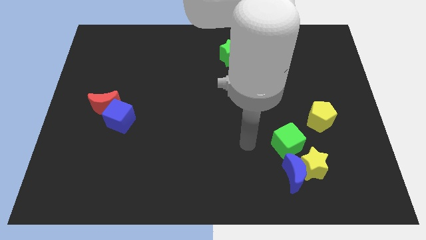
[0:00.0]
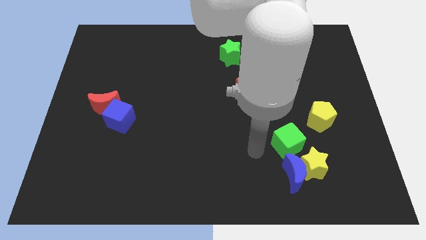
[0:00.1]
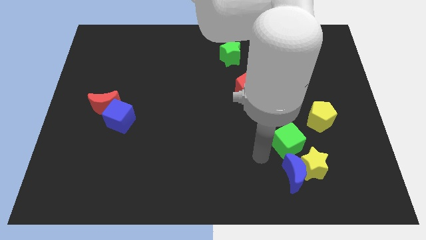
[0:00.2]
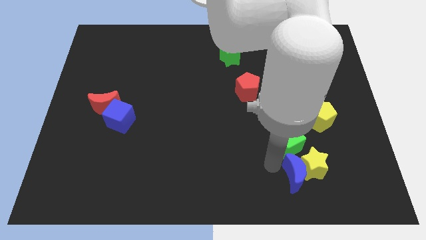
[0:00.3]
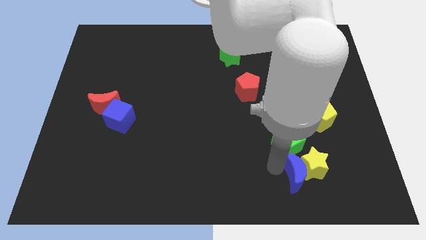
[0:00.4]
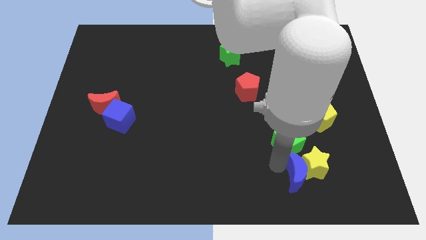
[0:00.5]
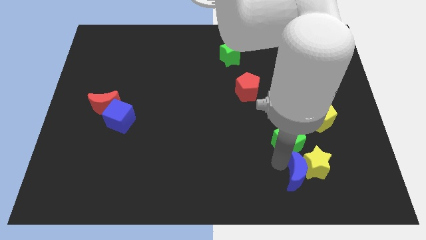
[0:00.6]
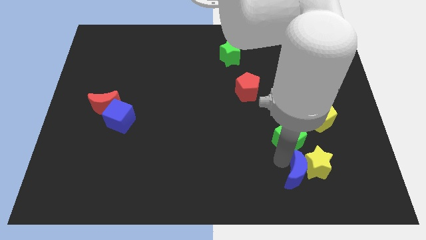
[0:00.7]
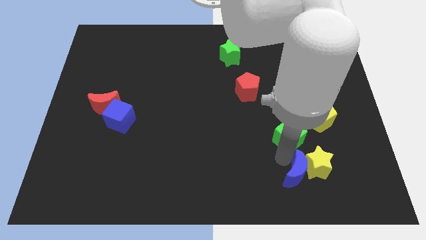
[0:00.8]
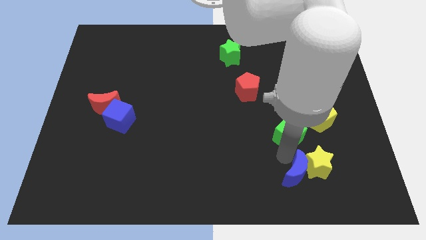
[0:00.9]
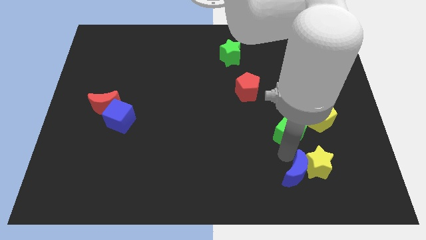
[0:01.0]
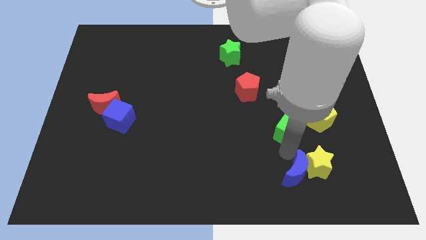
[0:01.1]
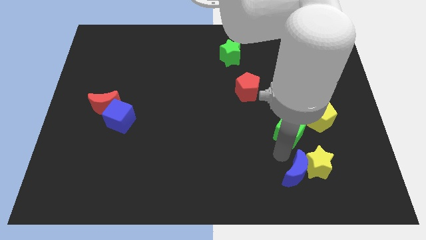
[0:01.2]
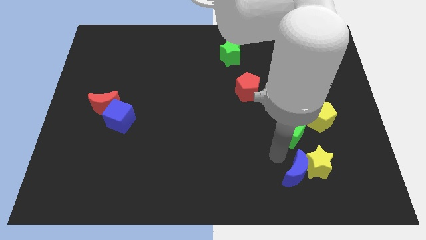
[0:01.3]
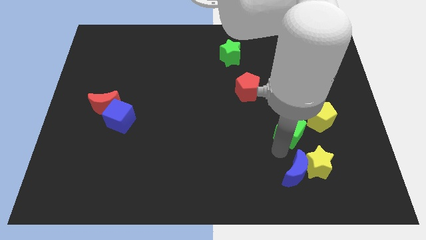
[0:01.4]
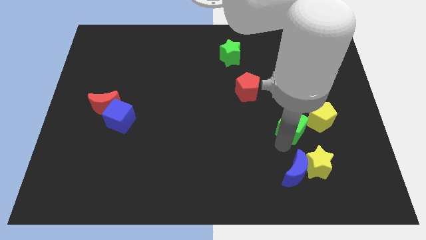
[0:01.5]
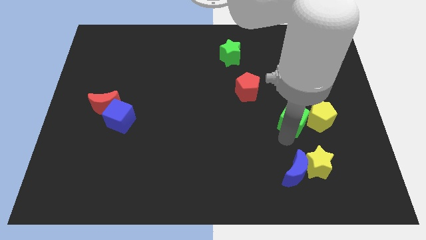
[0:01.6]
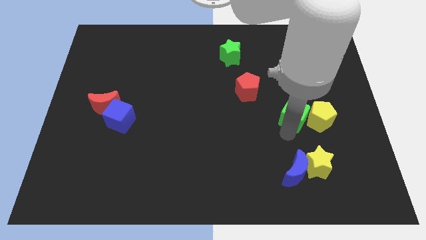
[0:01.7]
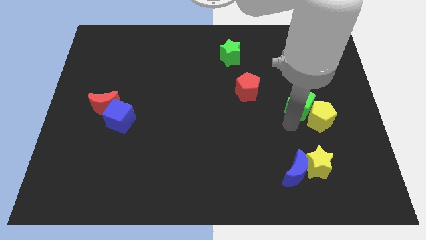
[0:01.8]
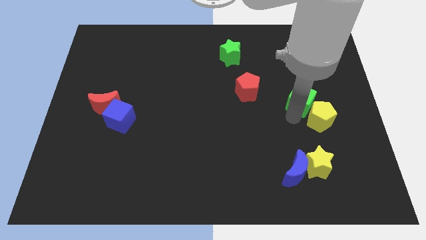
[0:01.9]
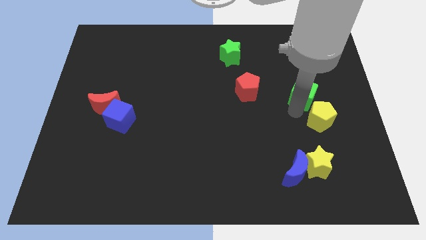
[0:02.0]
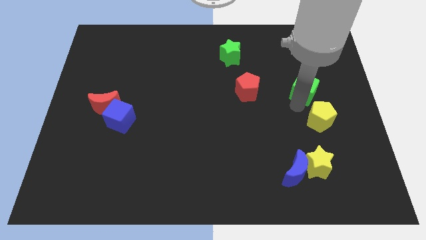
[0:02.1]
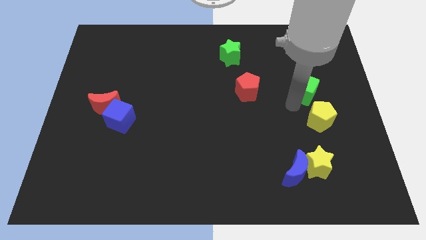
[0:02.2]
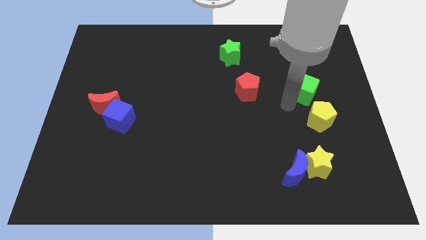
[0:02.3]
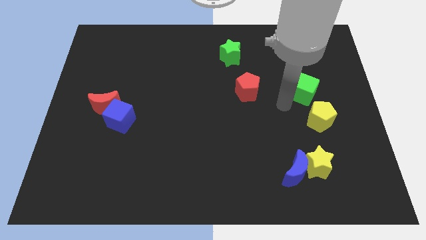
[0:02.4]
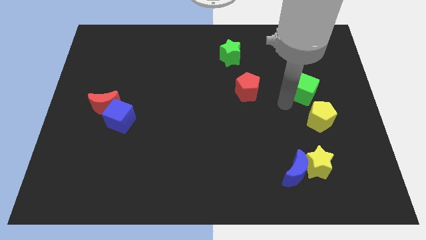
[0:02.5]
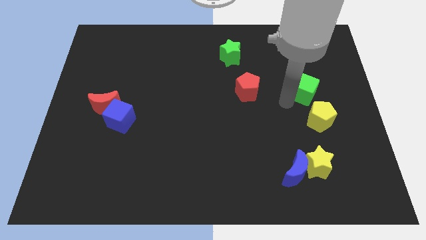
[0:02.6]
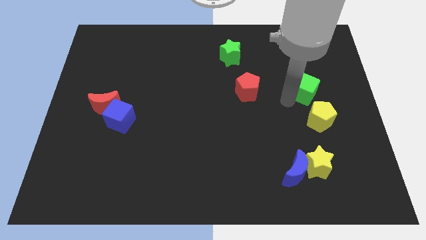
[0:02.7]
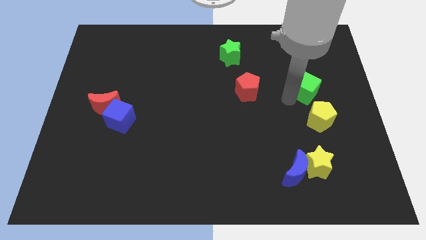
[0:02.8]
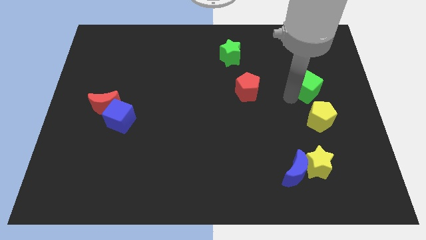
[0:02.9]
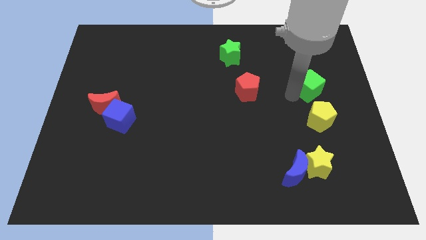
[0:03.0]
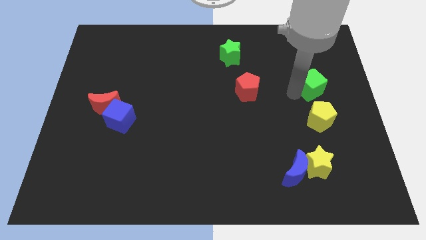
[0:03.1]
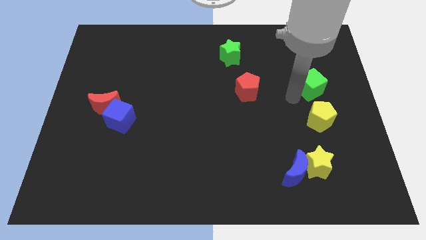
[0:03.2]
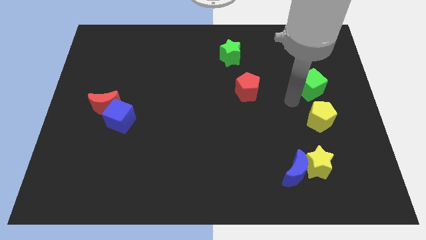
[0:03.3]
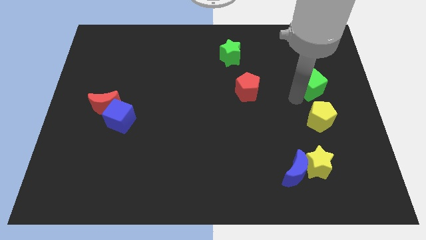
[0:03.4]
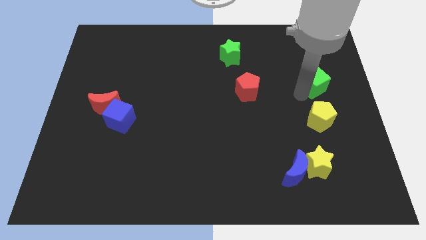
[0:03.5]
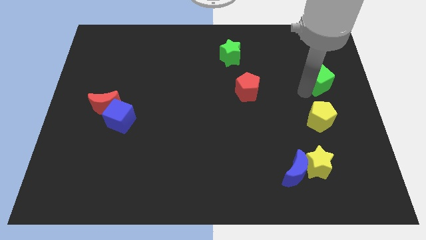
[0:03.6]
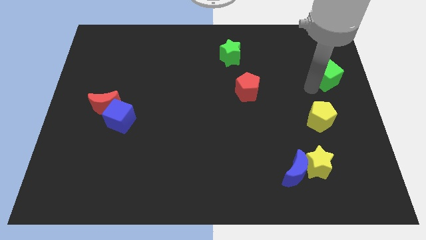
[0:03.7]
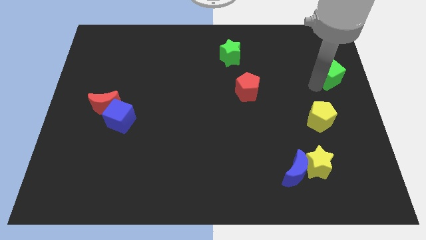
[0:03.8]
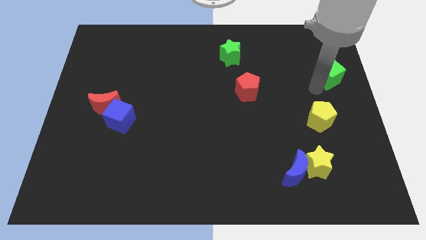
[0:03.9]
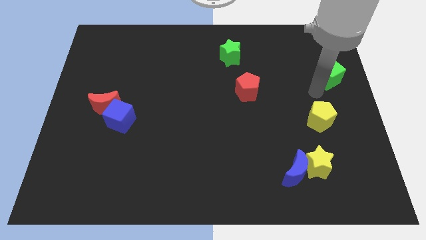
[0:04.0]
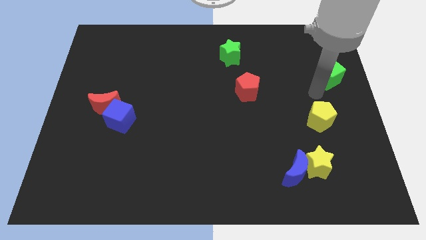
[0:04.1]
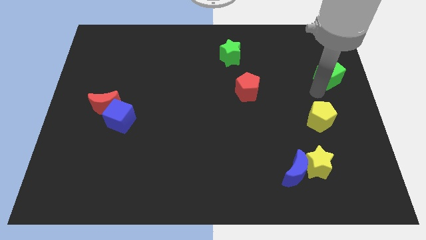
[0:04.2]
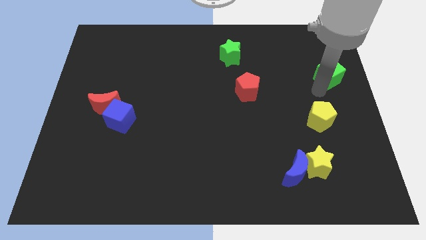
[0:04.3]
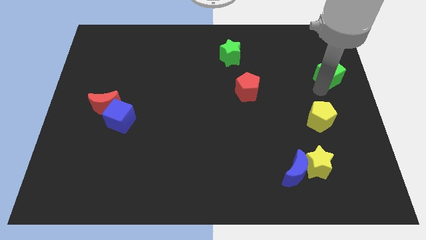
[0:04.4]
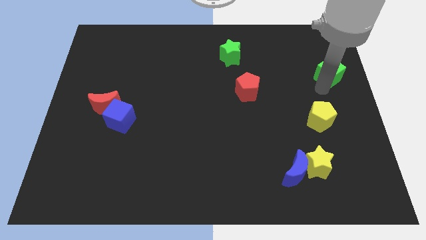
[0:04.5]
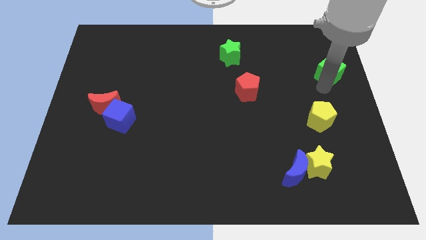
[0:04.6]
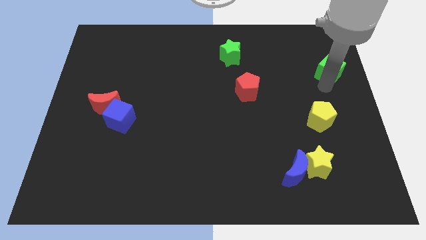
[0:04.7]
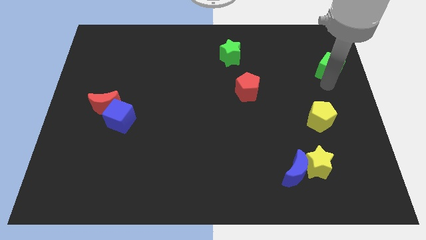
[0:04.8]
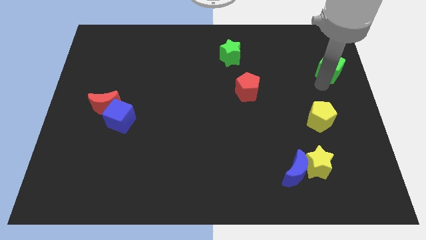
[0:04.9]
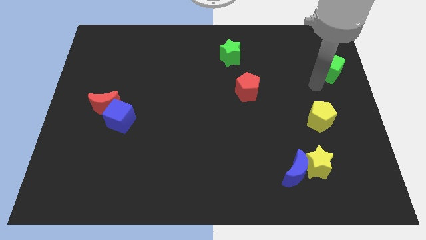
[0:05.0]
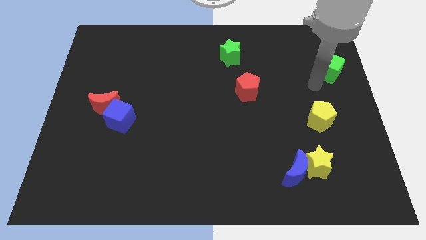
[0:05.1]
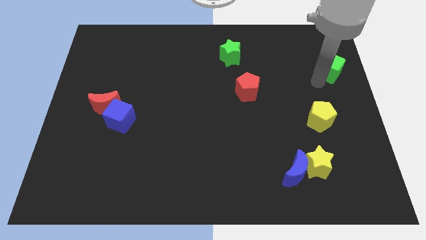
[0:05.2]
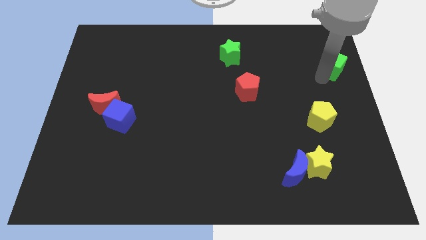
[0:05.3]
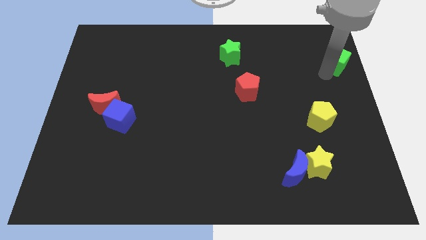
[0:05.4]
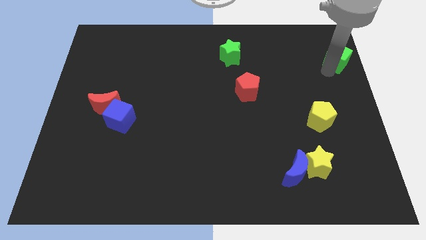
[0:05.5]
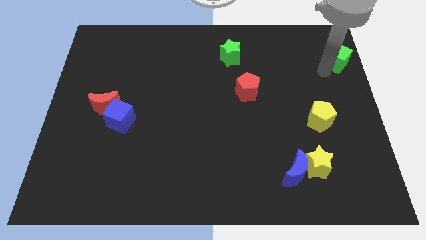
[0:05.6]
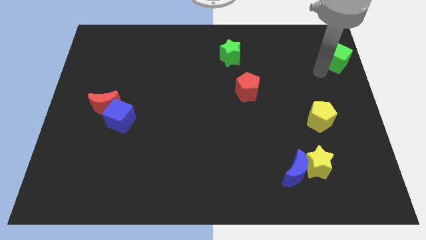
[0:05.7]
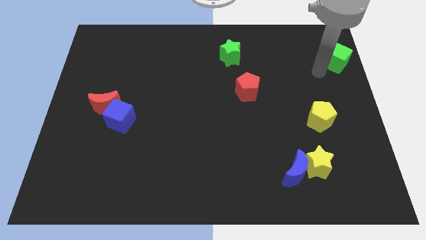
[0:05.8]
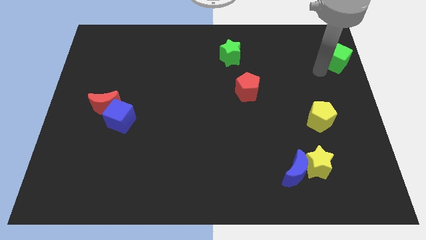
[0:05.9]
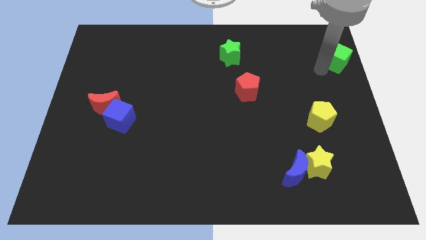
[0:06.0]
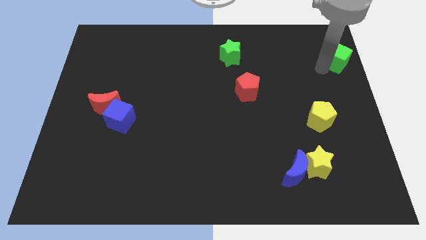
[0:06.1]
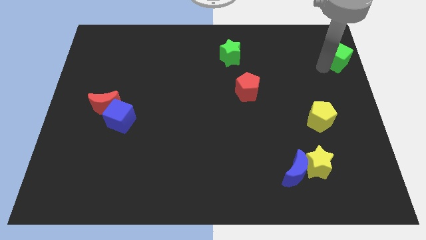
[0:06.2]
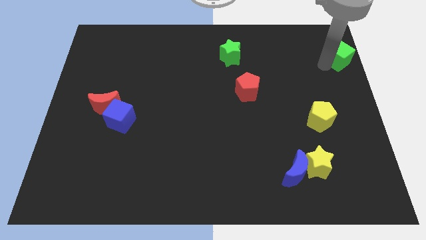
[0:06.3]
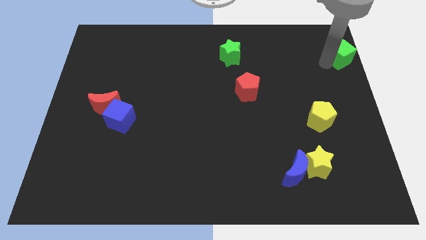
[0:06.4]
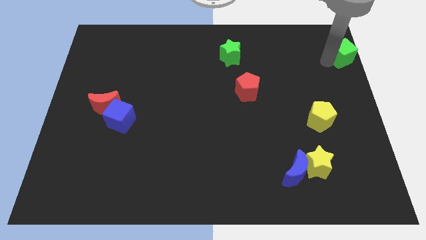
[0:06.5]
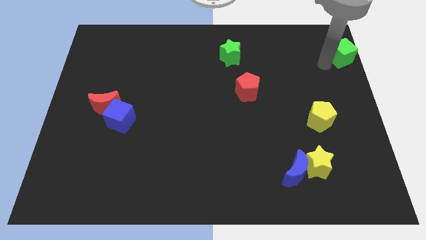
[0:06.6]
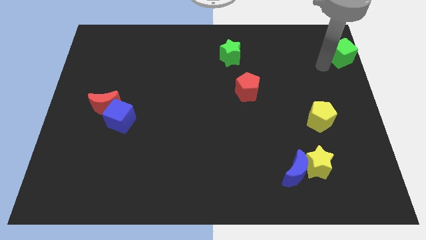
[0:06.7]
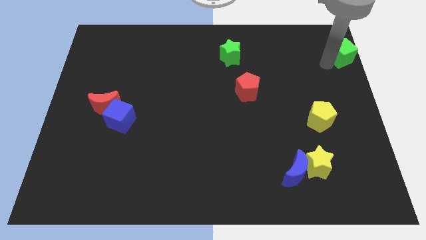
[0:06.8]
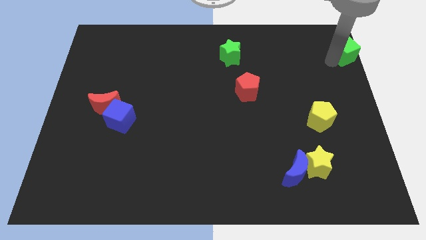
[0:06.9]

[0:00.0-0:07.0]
slide the green cube to the top right of the board
